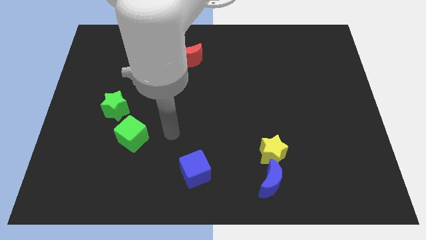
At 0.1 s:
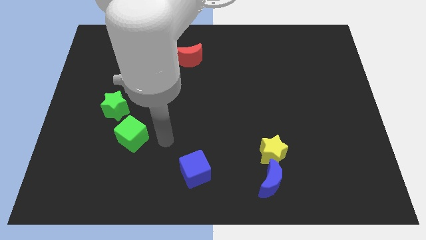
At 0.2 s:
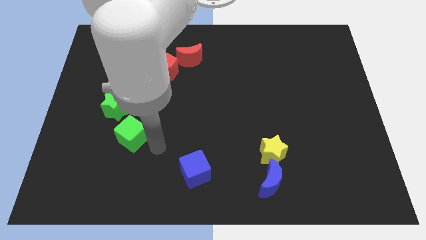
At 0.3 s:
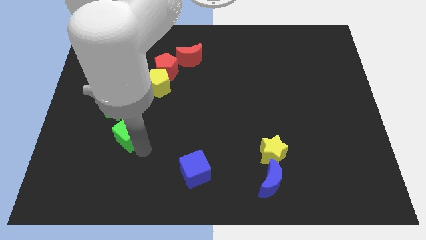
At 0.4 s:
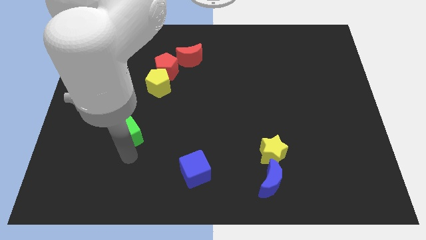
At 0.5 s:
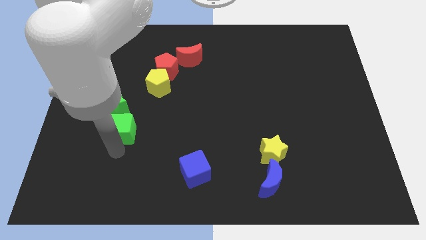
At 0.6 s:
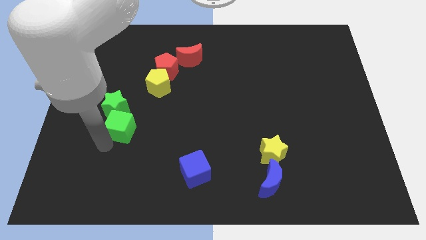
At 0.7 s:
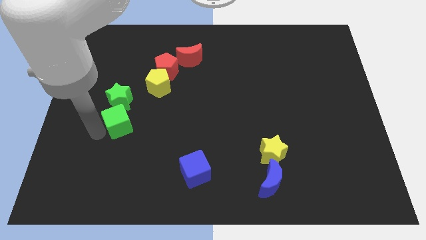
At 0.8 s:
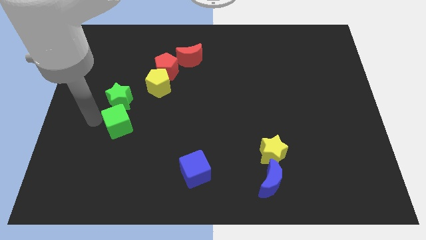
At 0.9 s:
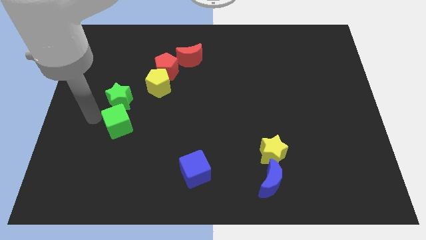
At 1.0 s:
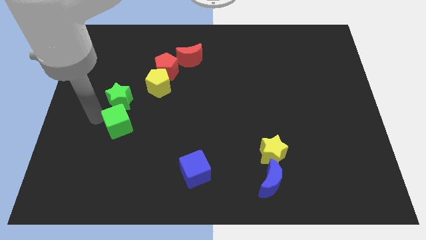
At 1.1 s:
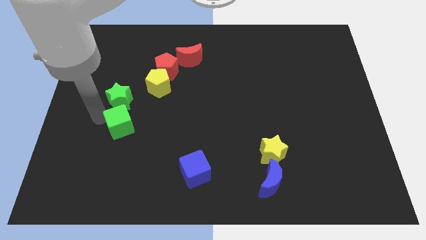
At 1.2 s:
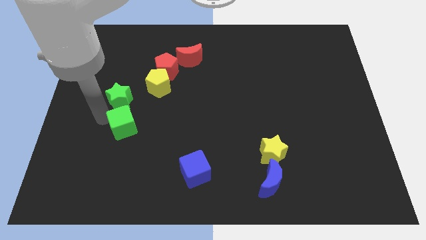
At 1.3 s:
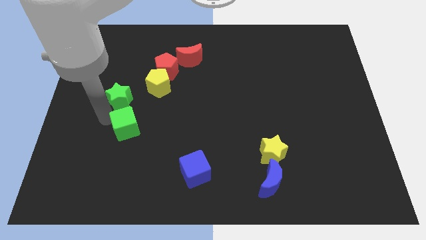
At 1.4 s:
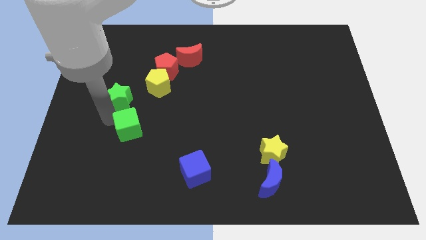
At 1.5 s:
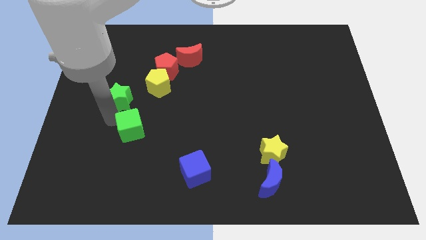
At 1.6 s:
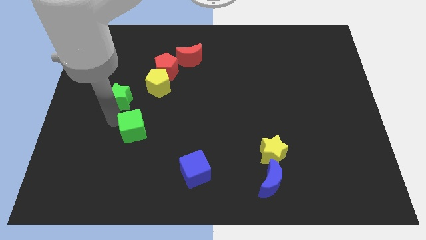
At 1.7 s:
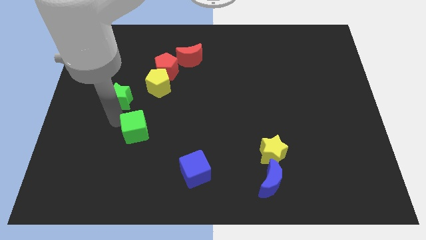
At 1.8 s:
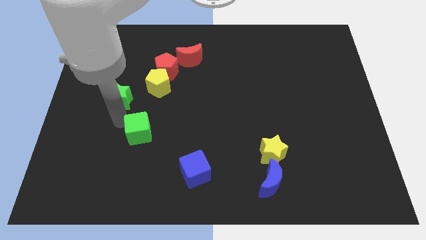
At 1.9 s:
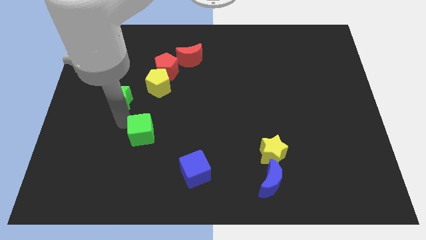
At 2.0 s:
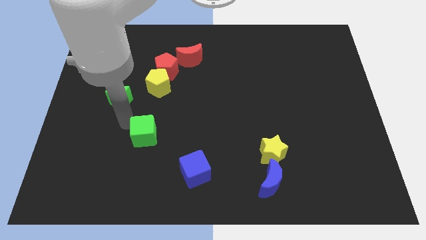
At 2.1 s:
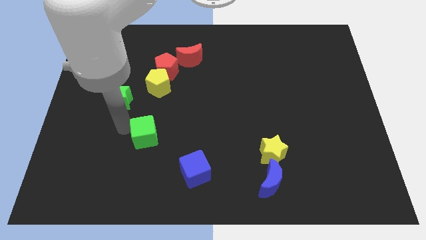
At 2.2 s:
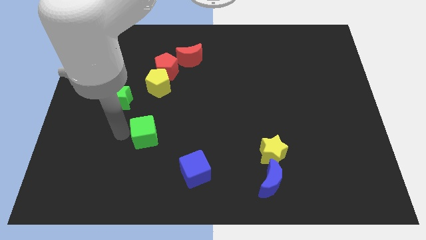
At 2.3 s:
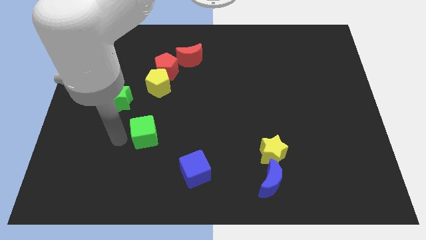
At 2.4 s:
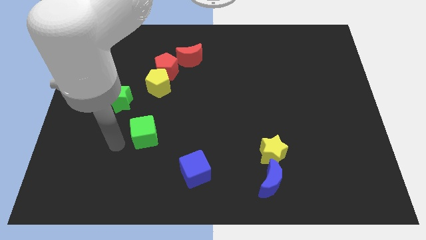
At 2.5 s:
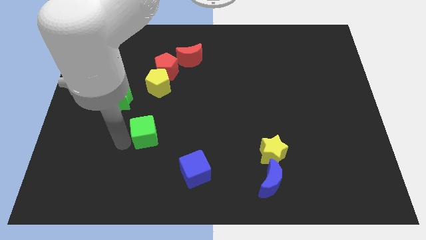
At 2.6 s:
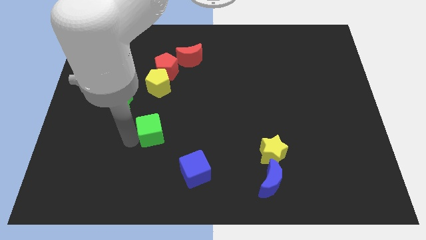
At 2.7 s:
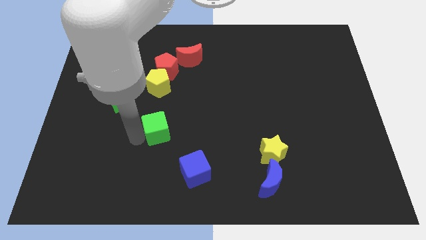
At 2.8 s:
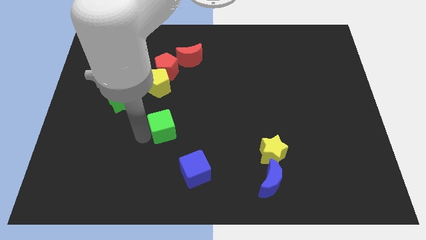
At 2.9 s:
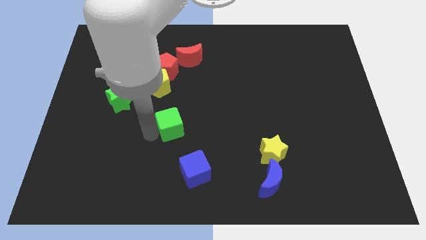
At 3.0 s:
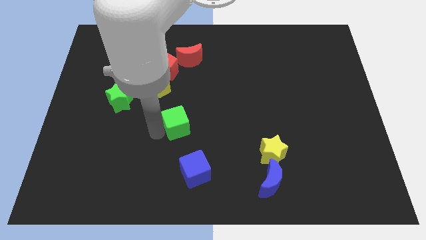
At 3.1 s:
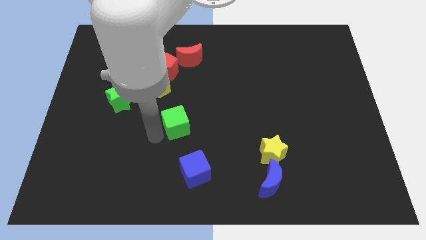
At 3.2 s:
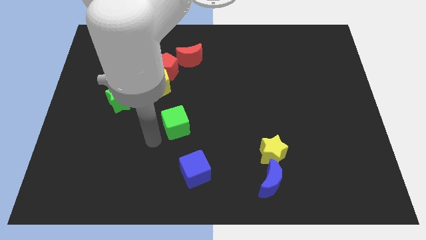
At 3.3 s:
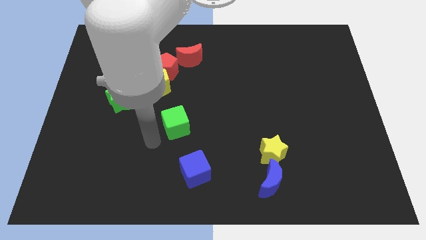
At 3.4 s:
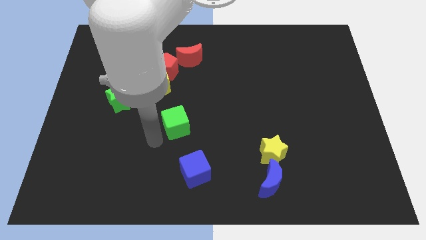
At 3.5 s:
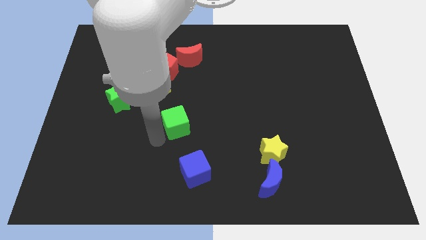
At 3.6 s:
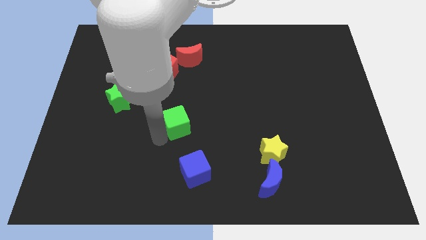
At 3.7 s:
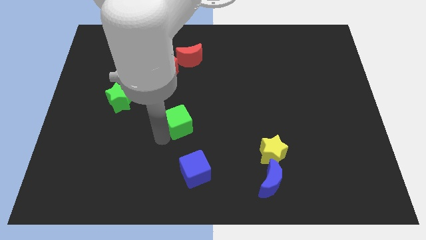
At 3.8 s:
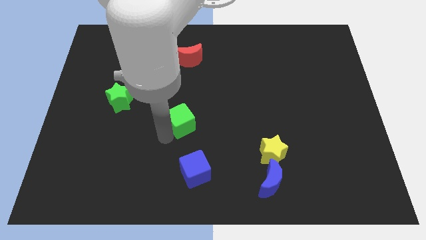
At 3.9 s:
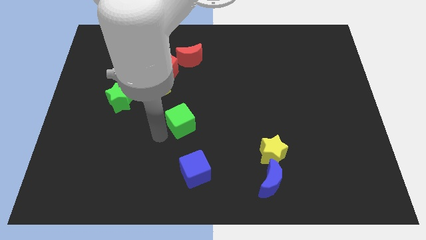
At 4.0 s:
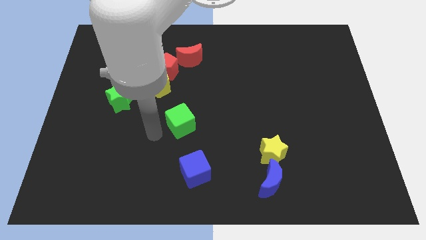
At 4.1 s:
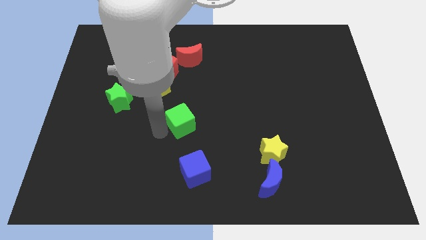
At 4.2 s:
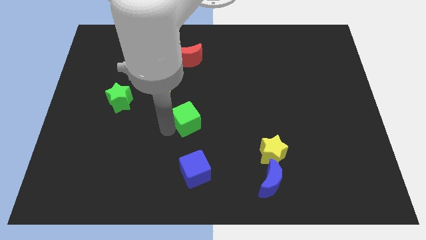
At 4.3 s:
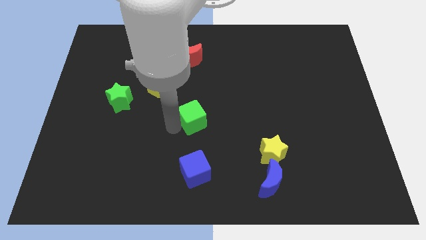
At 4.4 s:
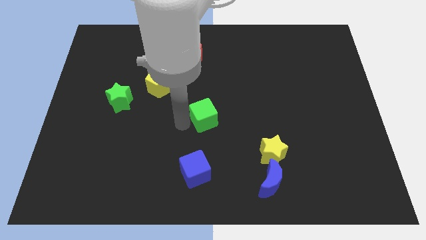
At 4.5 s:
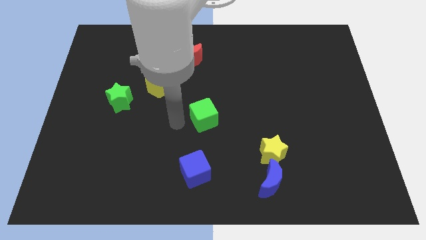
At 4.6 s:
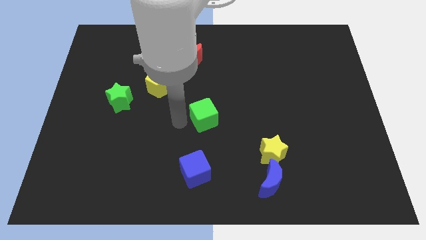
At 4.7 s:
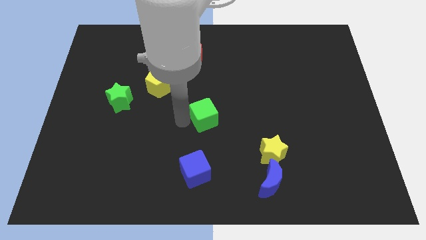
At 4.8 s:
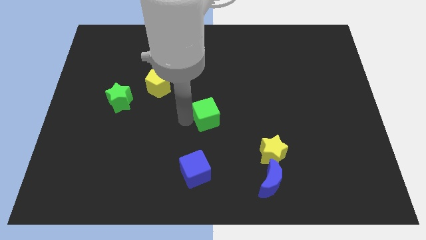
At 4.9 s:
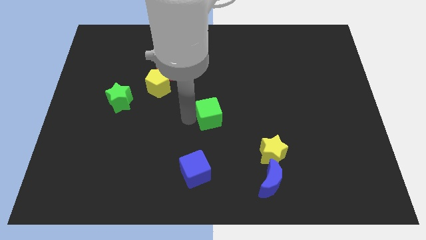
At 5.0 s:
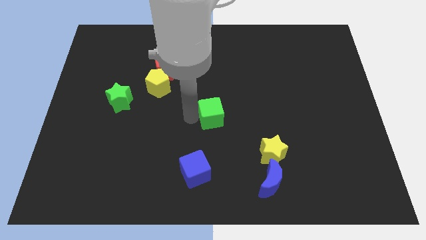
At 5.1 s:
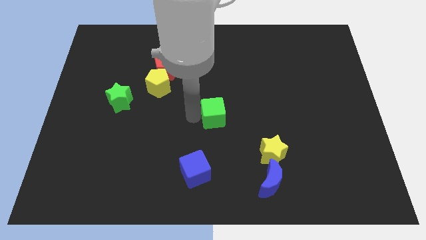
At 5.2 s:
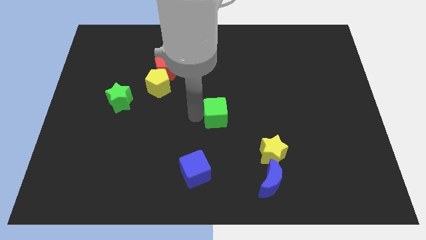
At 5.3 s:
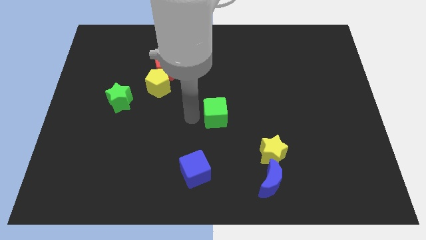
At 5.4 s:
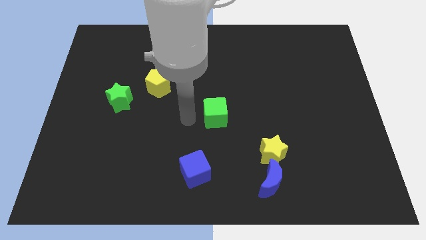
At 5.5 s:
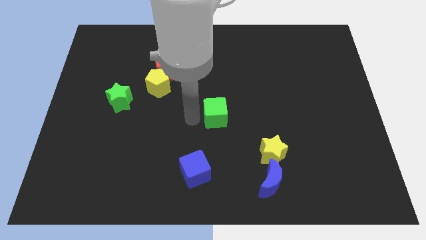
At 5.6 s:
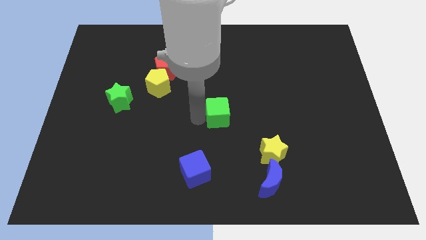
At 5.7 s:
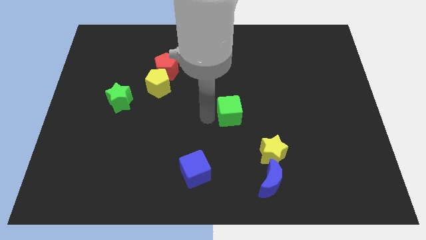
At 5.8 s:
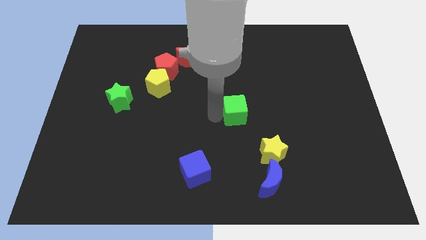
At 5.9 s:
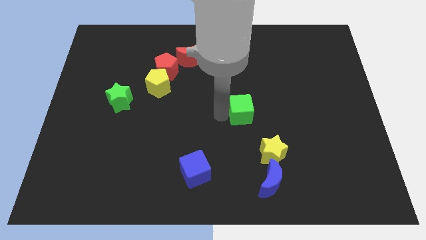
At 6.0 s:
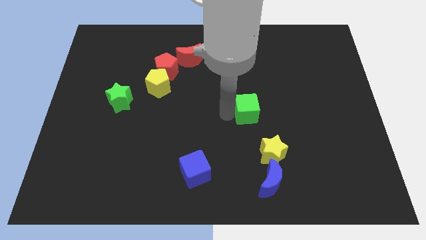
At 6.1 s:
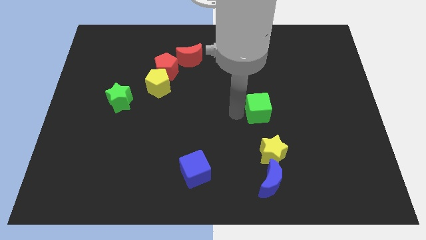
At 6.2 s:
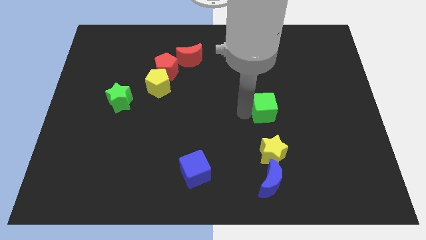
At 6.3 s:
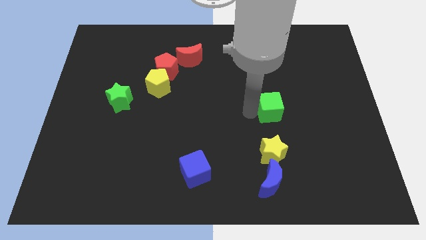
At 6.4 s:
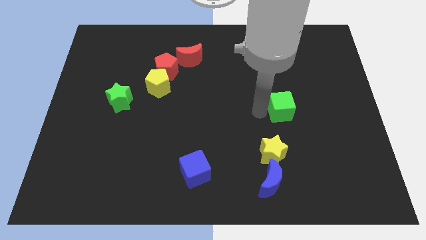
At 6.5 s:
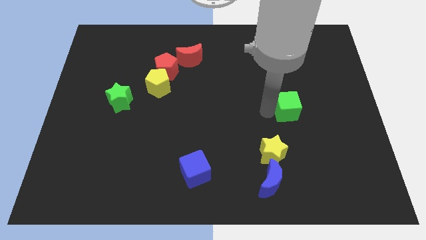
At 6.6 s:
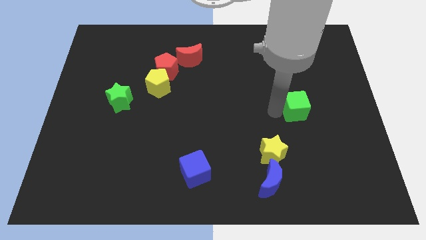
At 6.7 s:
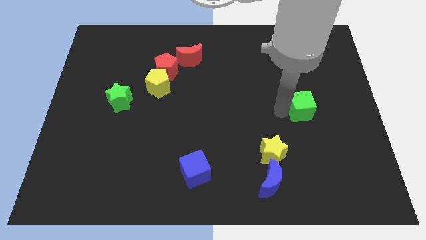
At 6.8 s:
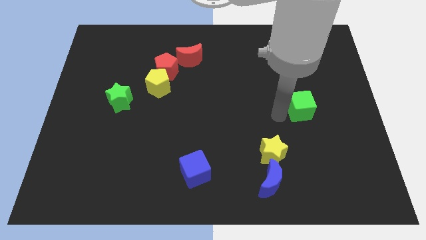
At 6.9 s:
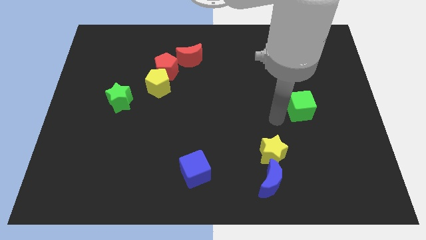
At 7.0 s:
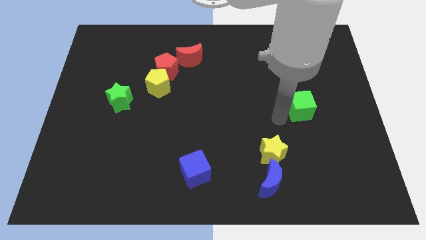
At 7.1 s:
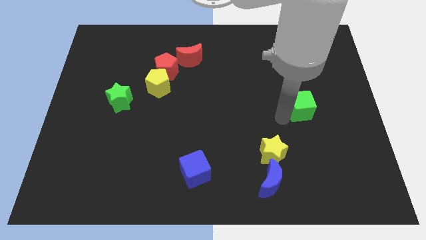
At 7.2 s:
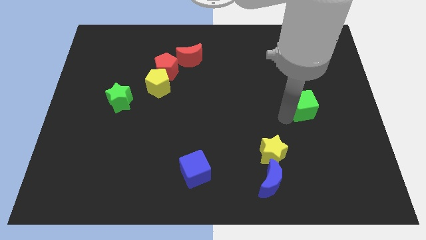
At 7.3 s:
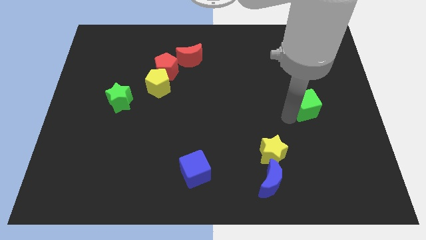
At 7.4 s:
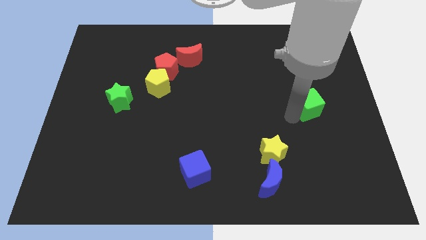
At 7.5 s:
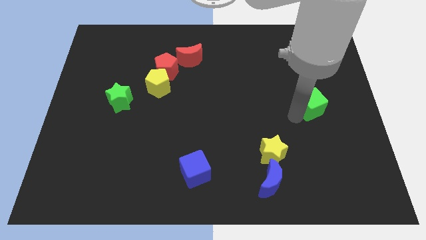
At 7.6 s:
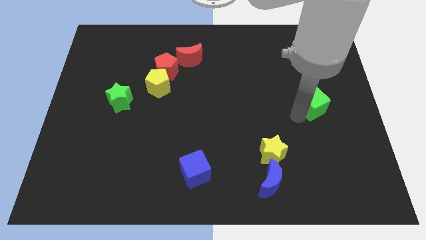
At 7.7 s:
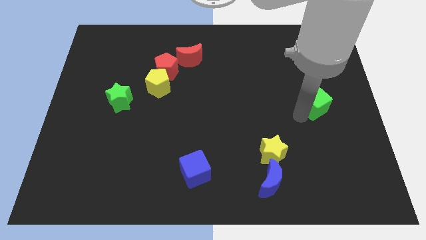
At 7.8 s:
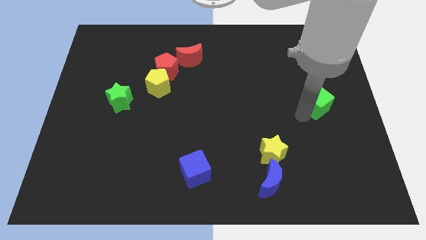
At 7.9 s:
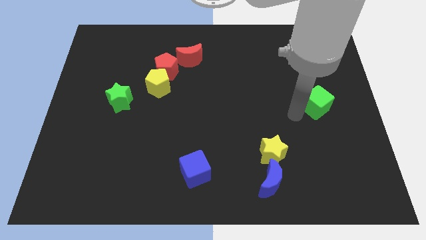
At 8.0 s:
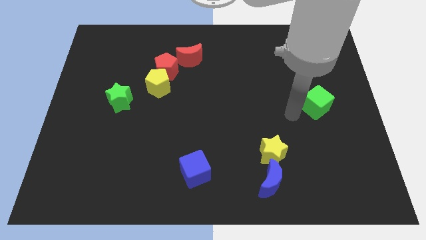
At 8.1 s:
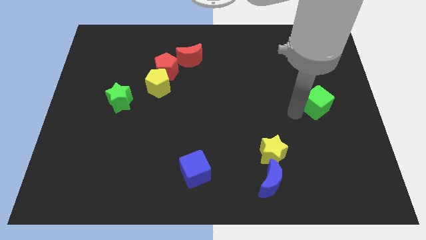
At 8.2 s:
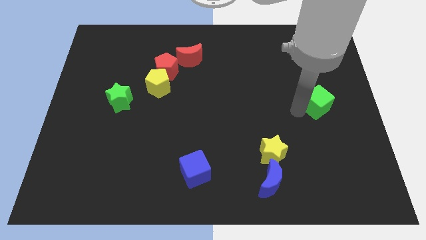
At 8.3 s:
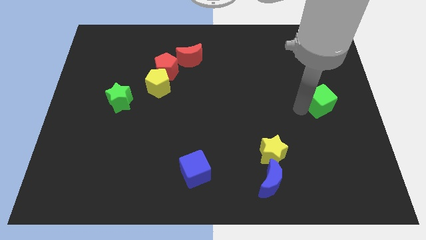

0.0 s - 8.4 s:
move the green cube to the center right
